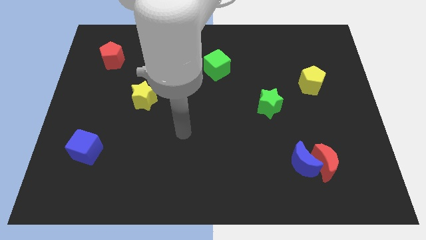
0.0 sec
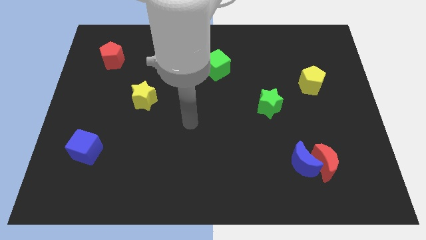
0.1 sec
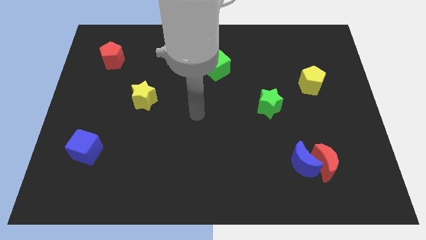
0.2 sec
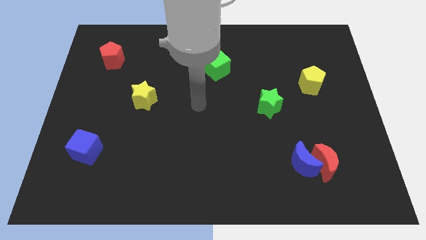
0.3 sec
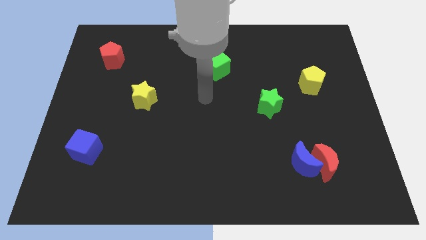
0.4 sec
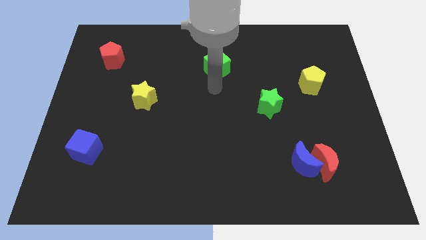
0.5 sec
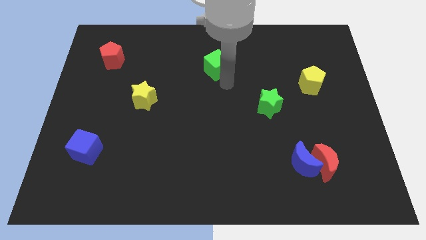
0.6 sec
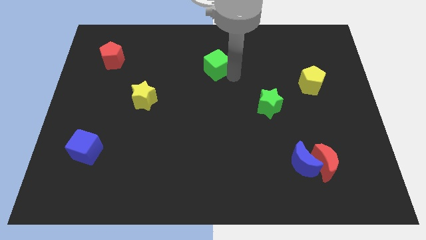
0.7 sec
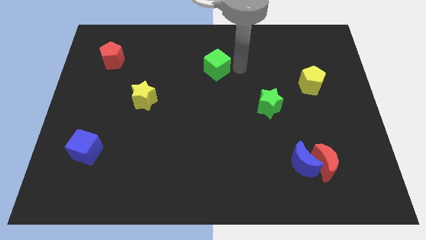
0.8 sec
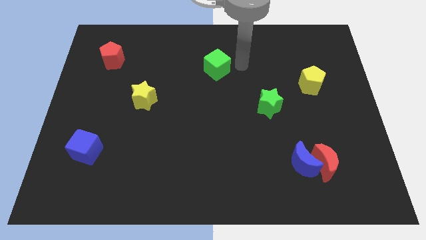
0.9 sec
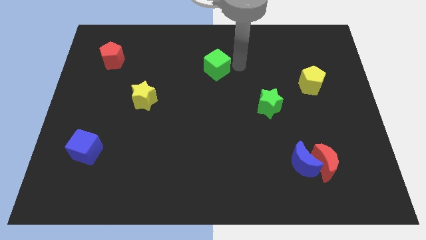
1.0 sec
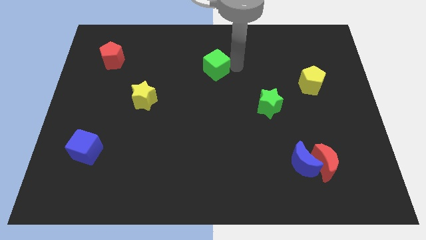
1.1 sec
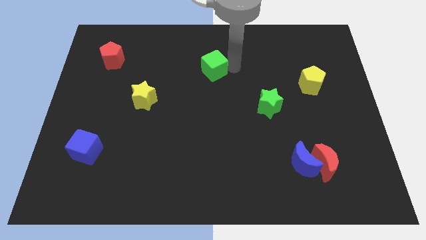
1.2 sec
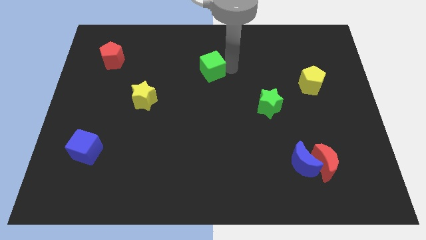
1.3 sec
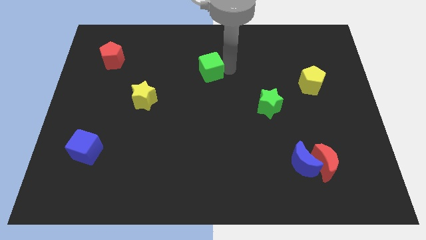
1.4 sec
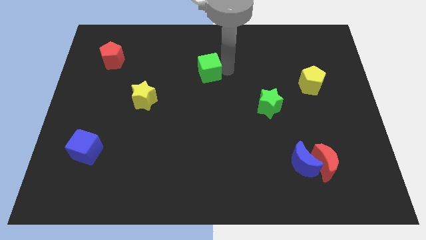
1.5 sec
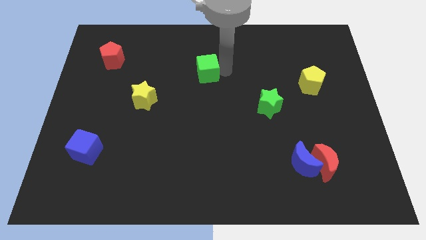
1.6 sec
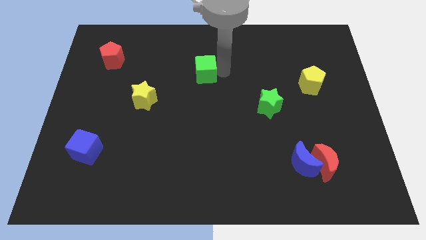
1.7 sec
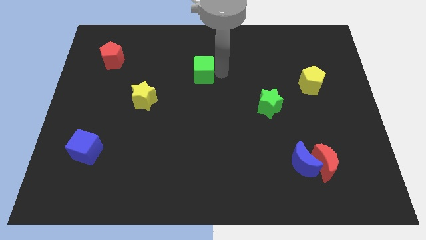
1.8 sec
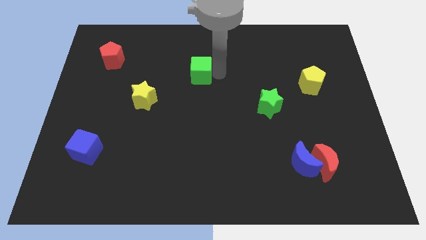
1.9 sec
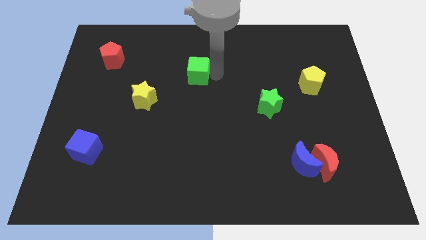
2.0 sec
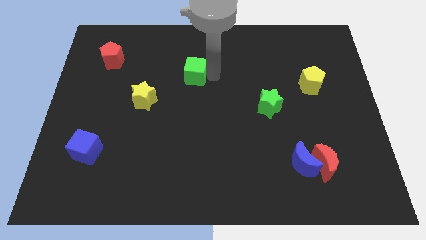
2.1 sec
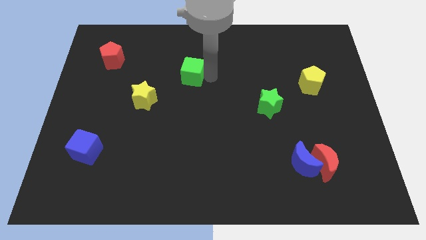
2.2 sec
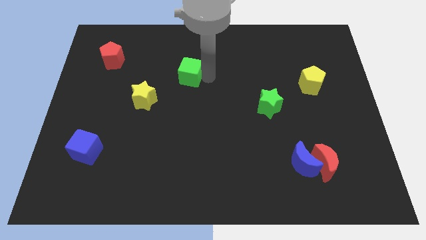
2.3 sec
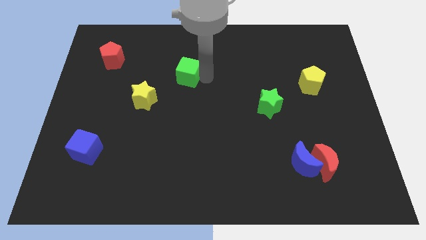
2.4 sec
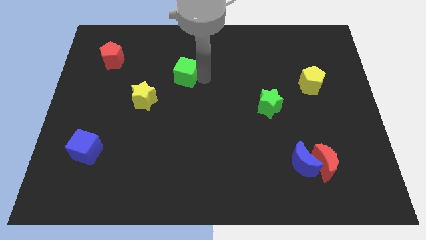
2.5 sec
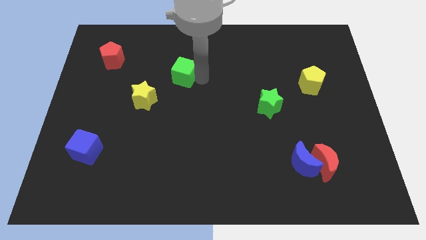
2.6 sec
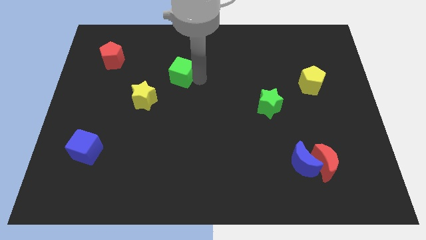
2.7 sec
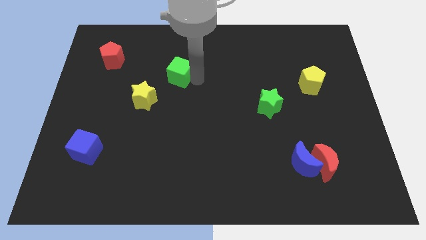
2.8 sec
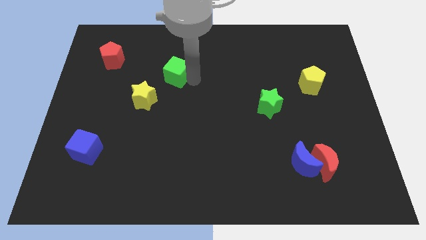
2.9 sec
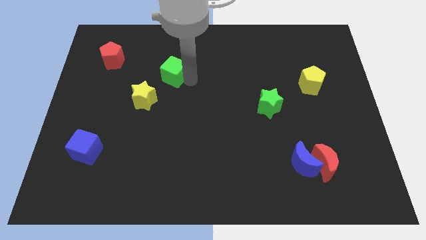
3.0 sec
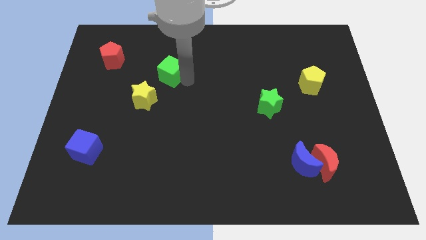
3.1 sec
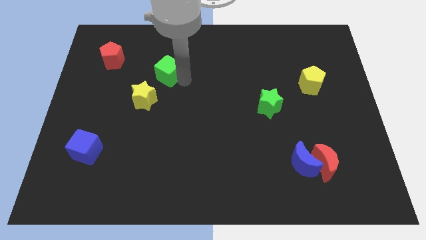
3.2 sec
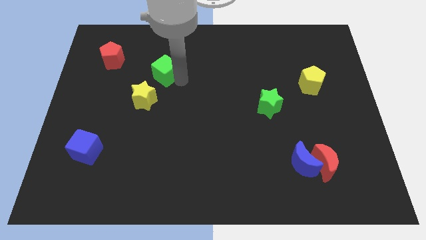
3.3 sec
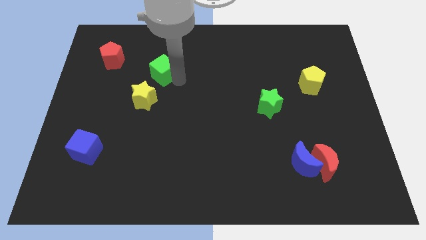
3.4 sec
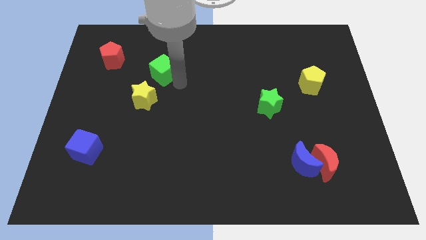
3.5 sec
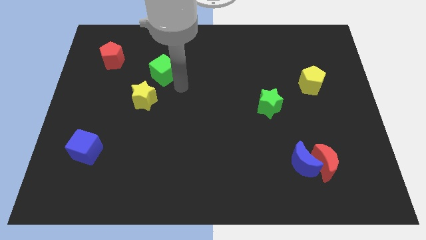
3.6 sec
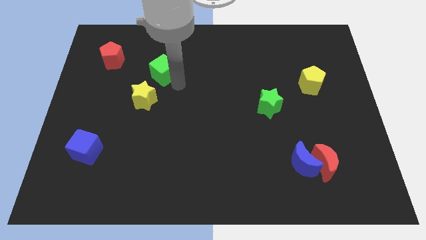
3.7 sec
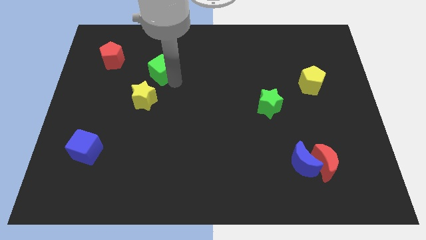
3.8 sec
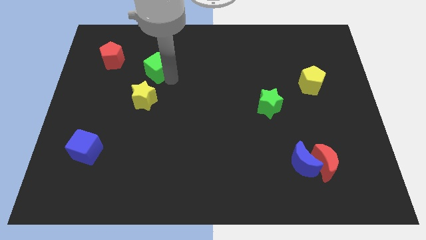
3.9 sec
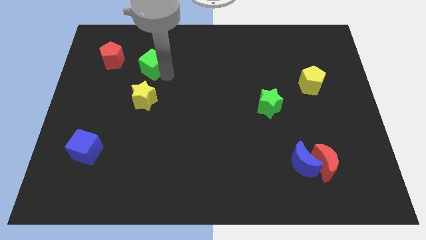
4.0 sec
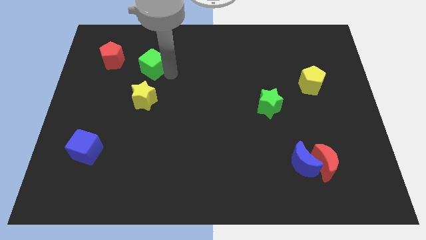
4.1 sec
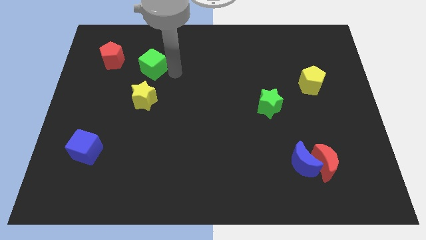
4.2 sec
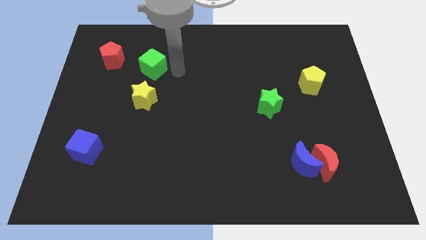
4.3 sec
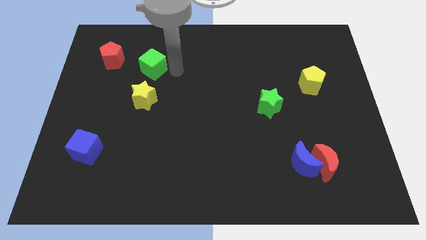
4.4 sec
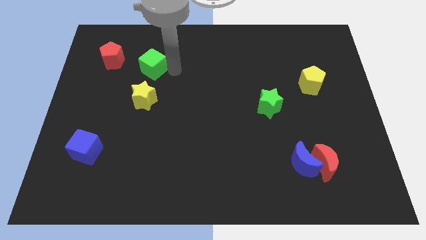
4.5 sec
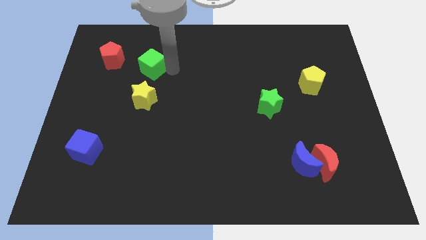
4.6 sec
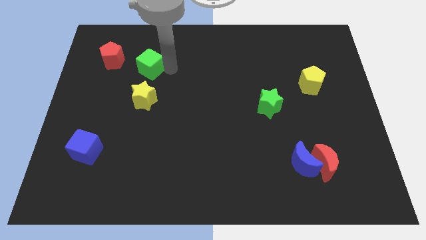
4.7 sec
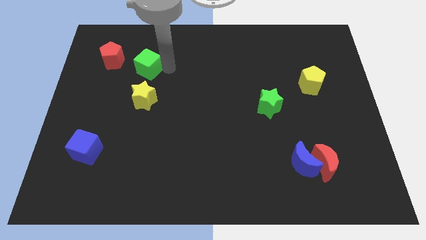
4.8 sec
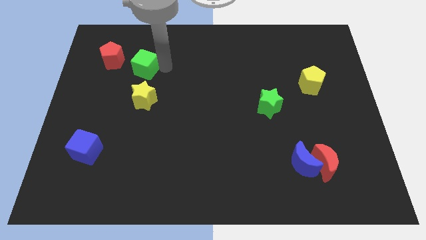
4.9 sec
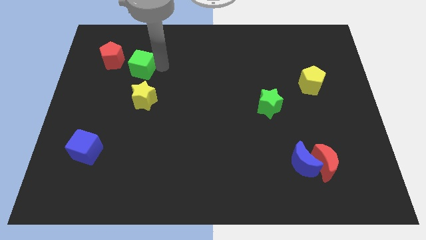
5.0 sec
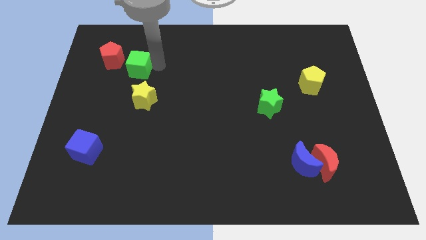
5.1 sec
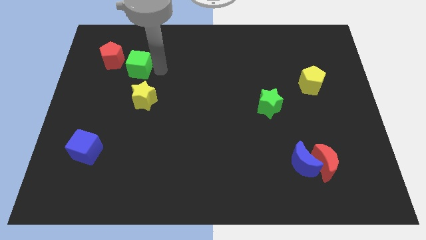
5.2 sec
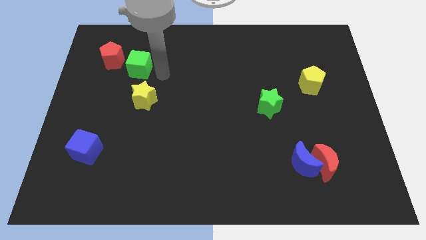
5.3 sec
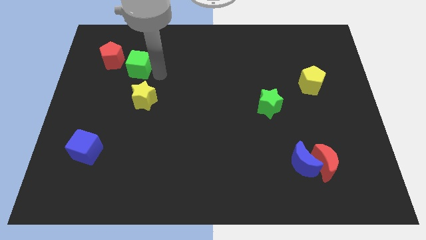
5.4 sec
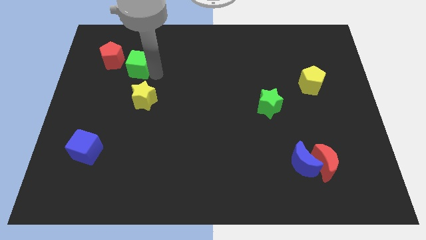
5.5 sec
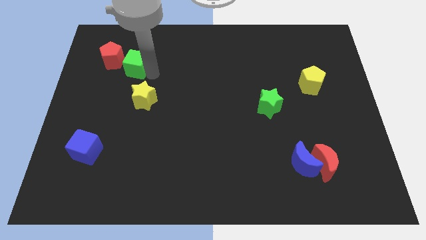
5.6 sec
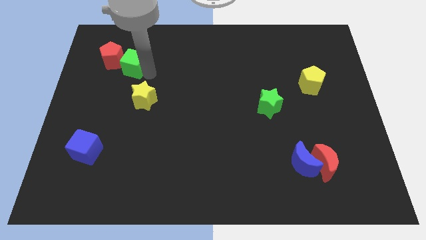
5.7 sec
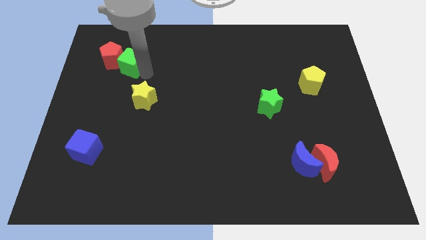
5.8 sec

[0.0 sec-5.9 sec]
push the green cube to the red pentagon
